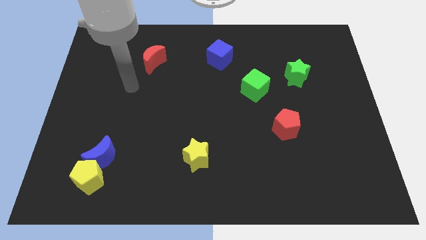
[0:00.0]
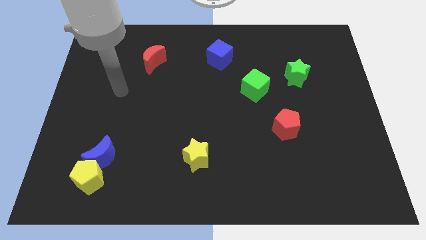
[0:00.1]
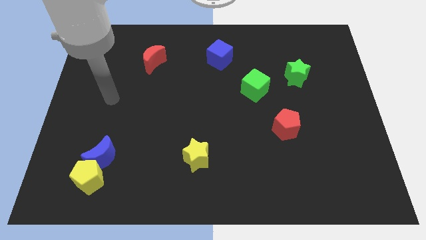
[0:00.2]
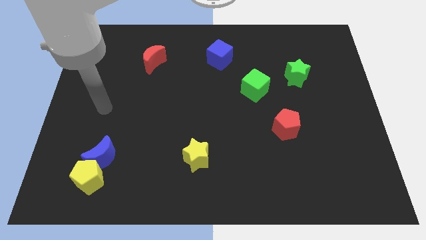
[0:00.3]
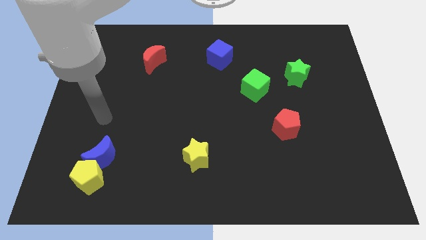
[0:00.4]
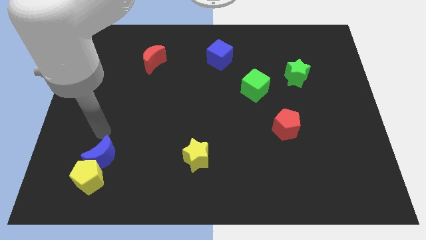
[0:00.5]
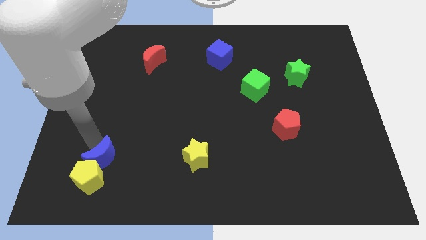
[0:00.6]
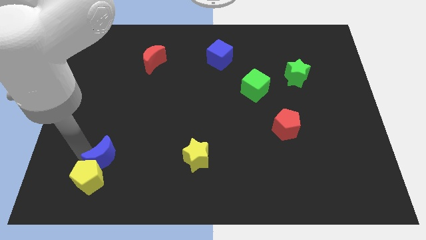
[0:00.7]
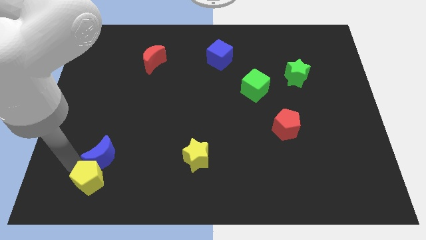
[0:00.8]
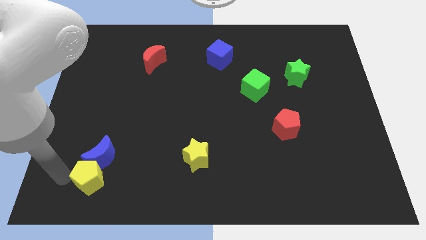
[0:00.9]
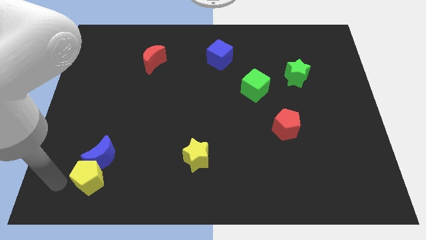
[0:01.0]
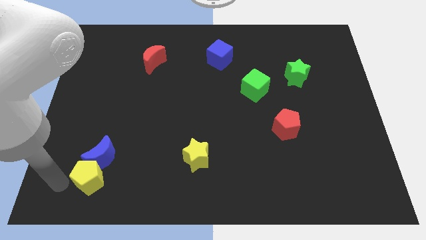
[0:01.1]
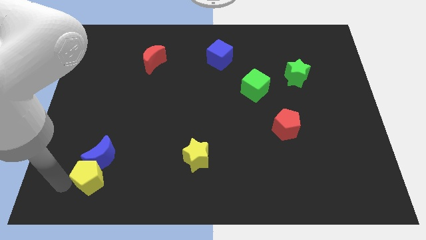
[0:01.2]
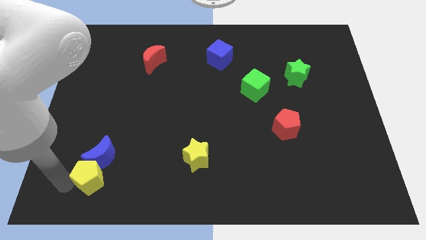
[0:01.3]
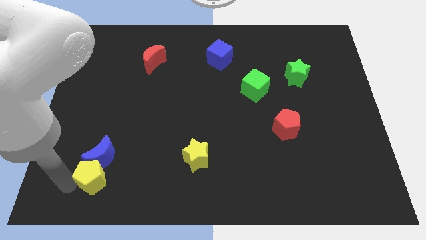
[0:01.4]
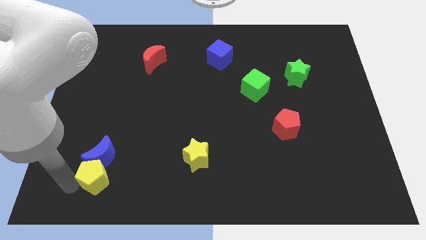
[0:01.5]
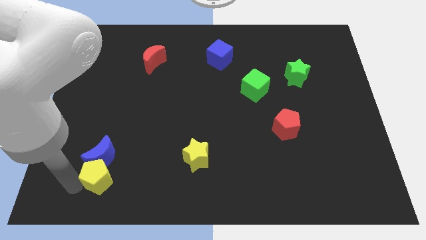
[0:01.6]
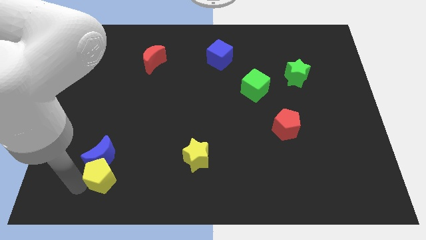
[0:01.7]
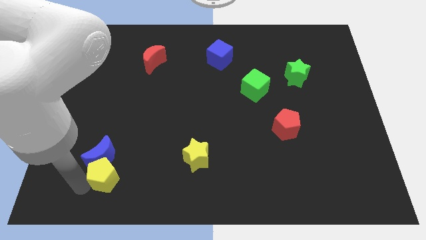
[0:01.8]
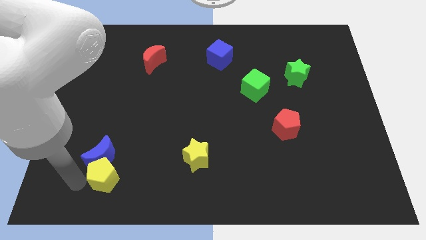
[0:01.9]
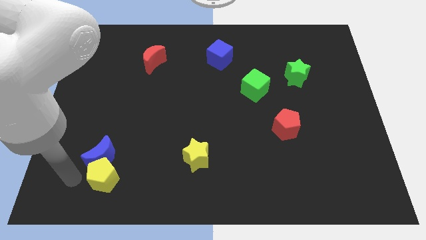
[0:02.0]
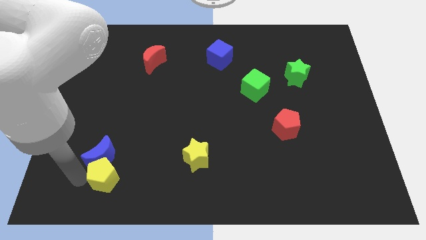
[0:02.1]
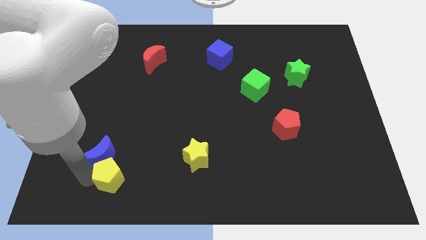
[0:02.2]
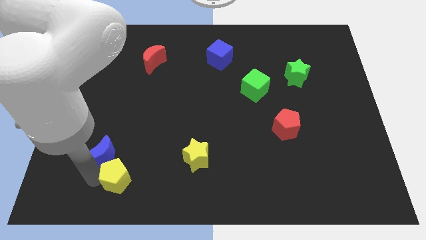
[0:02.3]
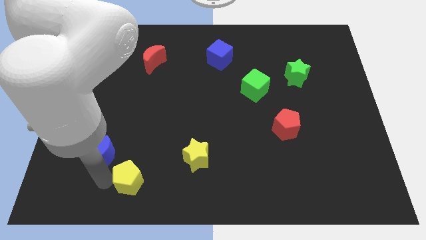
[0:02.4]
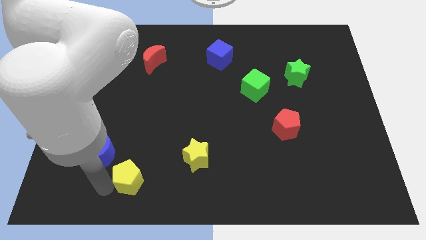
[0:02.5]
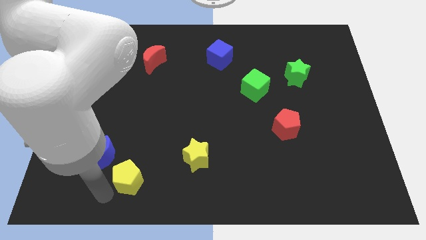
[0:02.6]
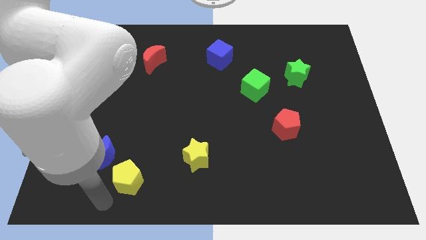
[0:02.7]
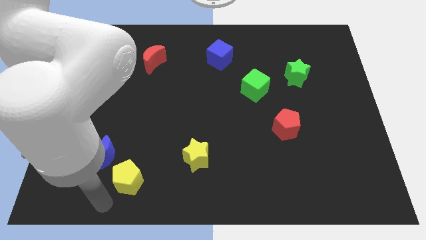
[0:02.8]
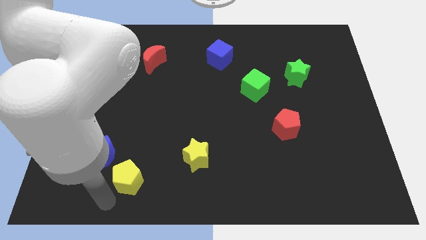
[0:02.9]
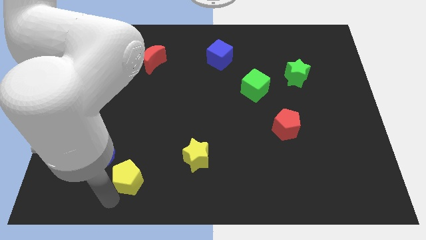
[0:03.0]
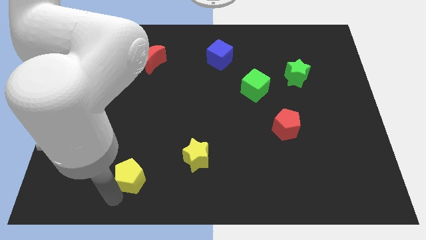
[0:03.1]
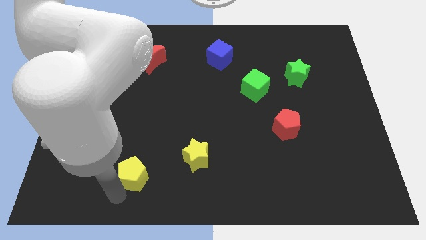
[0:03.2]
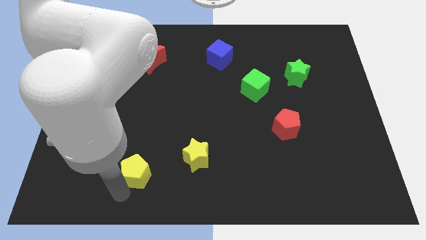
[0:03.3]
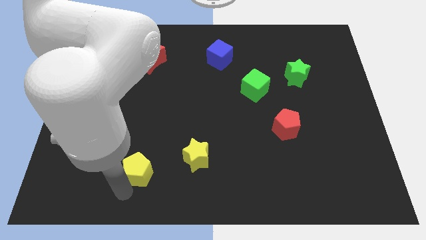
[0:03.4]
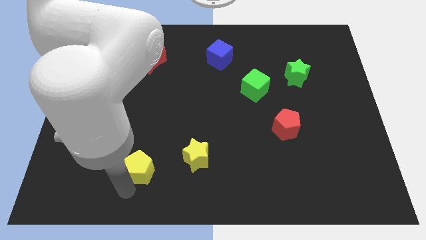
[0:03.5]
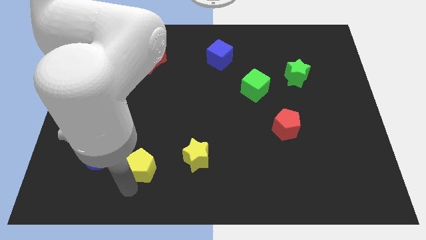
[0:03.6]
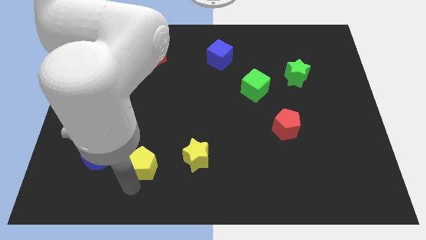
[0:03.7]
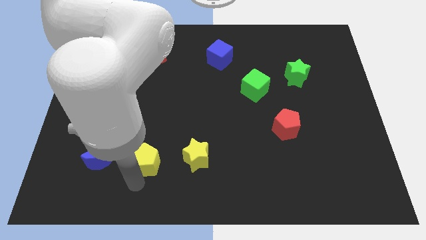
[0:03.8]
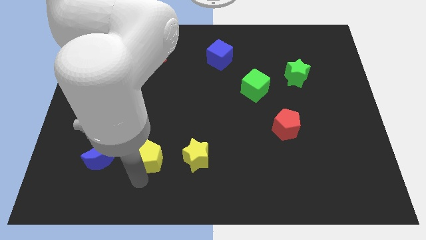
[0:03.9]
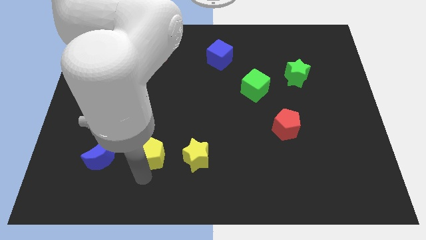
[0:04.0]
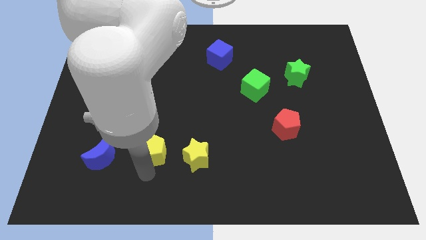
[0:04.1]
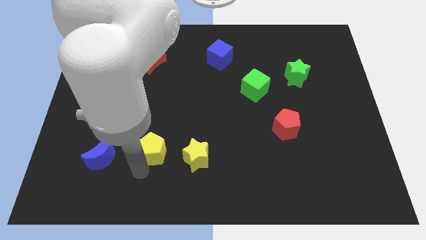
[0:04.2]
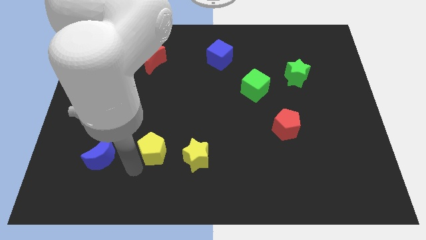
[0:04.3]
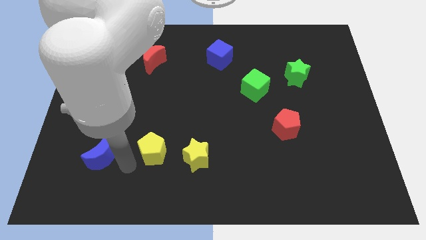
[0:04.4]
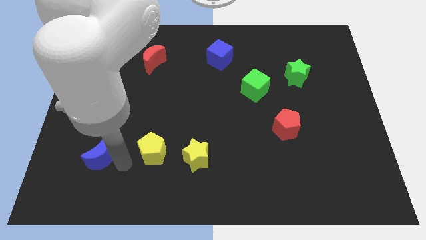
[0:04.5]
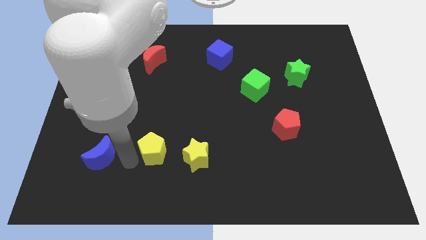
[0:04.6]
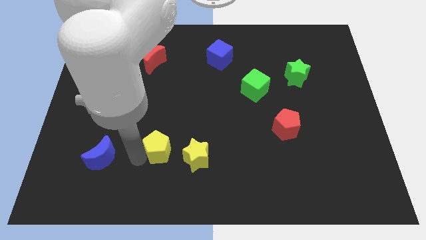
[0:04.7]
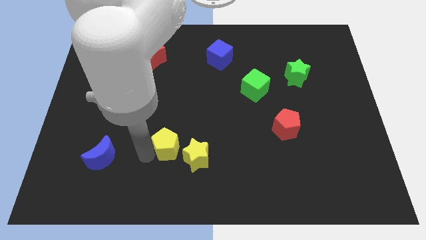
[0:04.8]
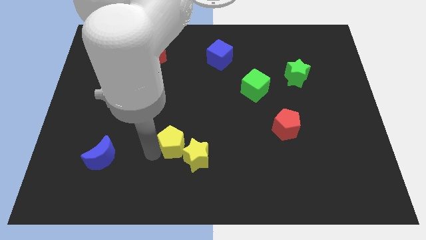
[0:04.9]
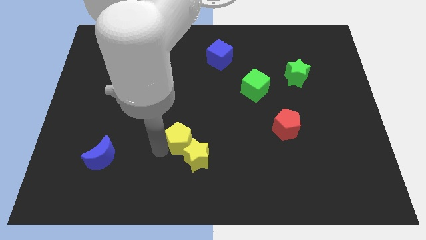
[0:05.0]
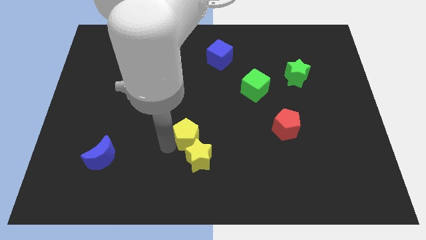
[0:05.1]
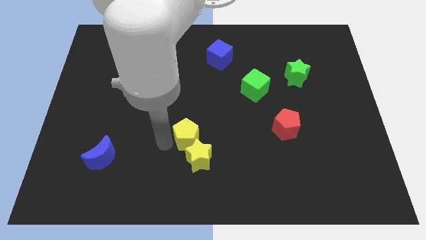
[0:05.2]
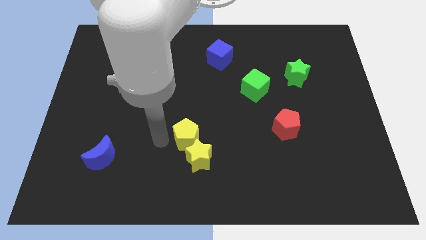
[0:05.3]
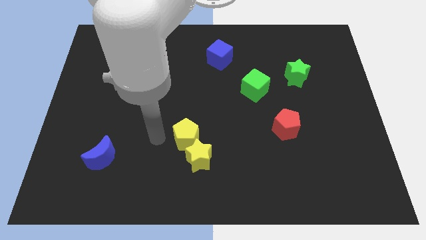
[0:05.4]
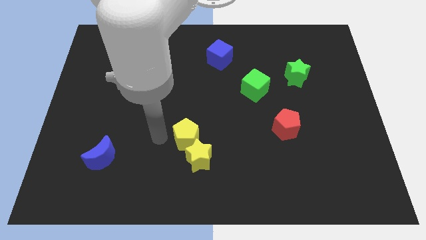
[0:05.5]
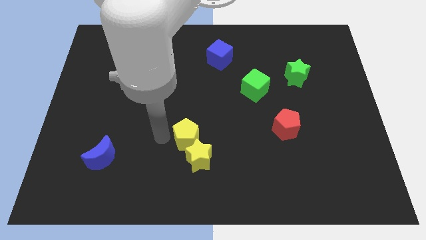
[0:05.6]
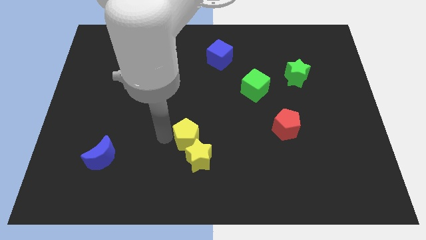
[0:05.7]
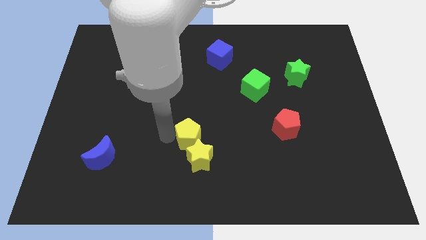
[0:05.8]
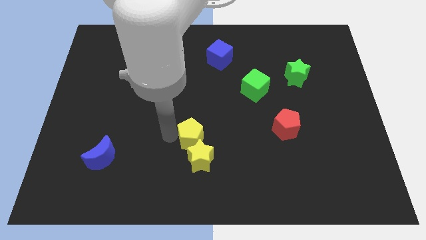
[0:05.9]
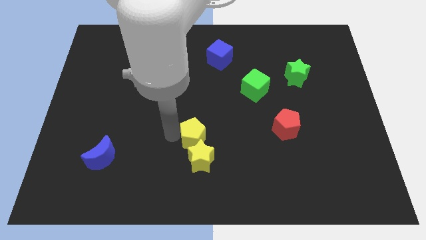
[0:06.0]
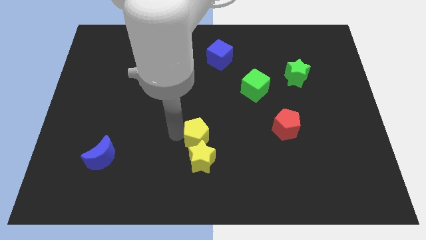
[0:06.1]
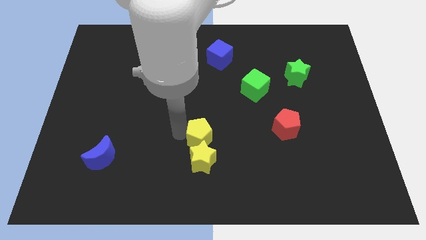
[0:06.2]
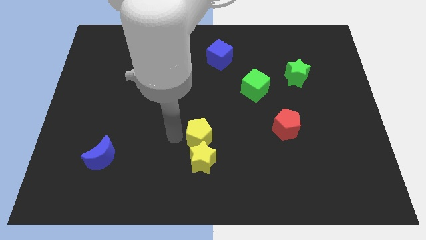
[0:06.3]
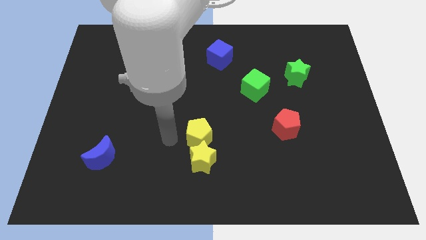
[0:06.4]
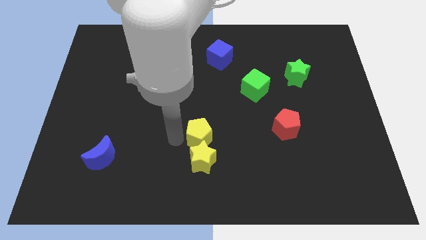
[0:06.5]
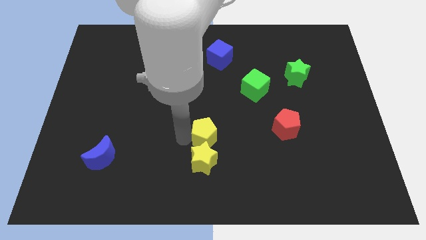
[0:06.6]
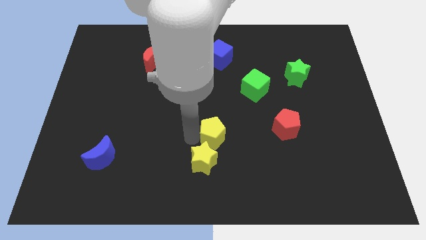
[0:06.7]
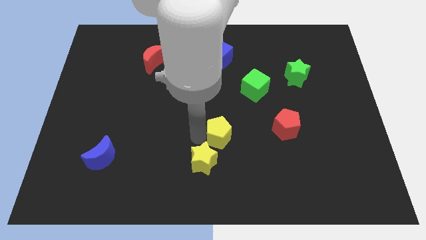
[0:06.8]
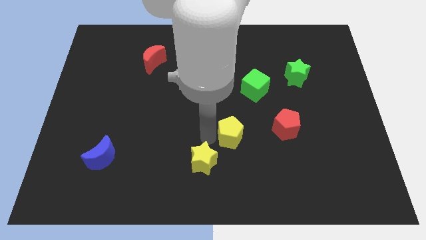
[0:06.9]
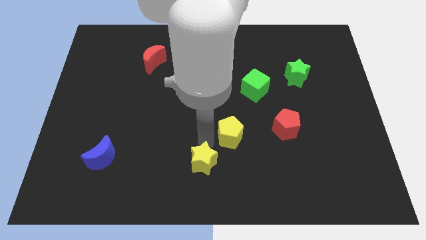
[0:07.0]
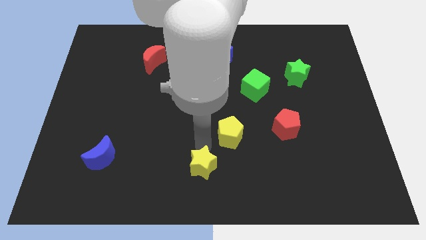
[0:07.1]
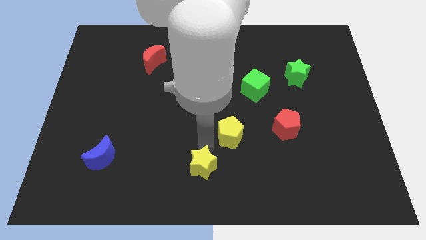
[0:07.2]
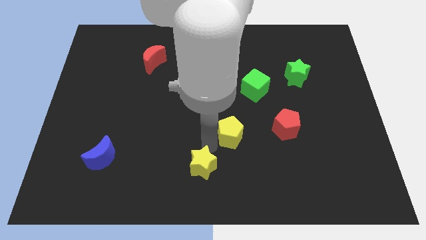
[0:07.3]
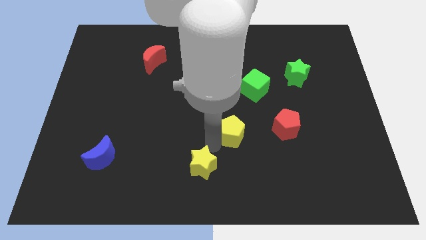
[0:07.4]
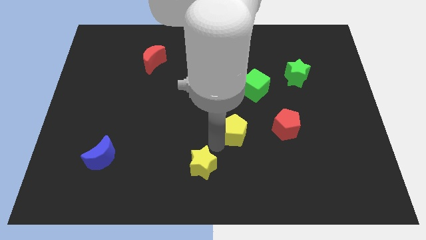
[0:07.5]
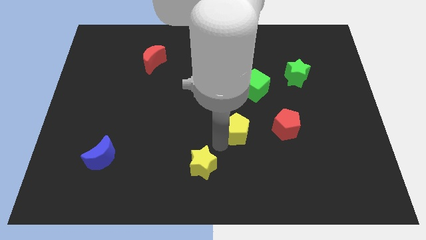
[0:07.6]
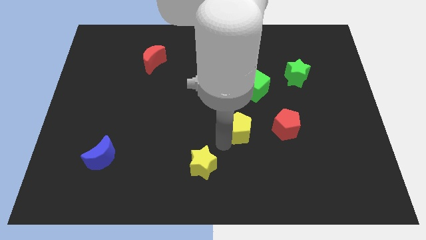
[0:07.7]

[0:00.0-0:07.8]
move the yellow pentagon below the green cube

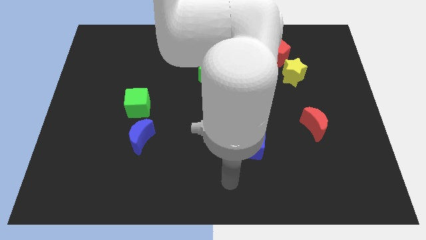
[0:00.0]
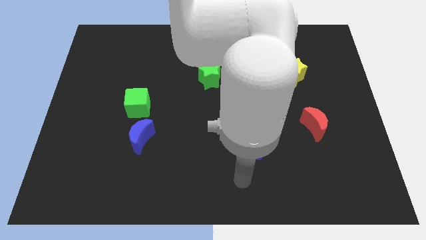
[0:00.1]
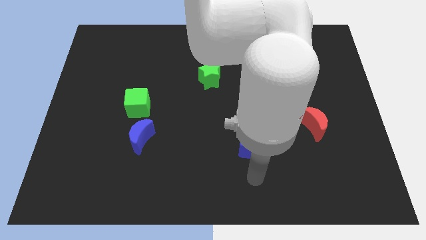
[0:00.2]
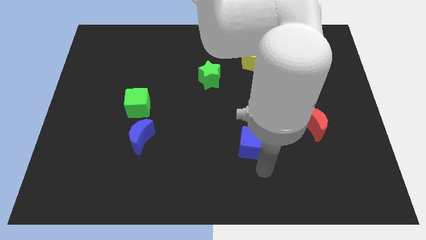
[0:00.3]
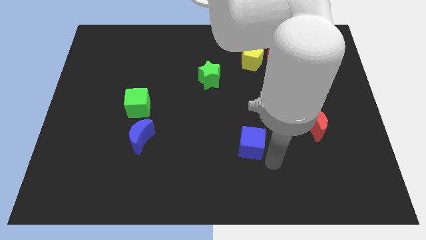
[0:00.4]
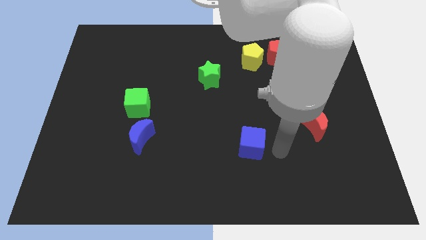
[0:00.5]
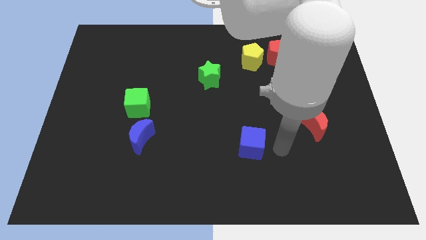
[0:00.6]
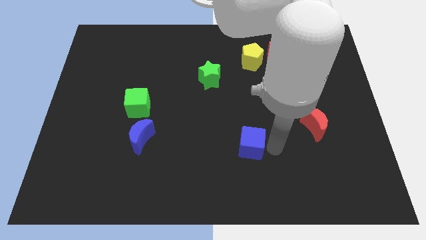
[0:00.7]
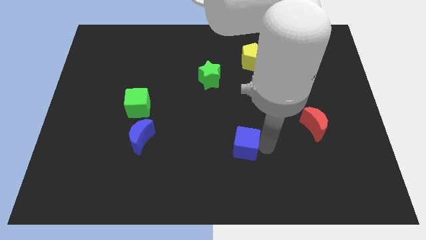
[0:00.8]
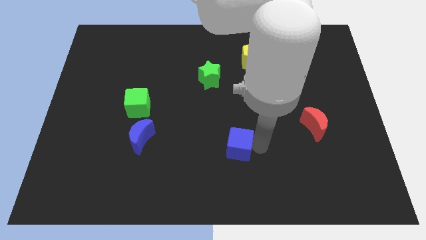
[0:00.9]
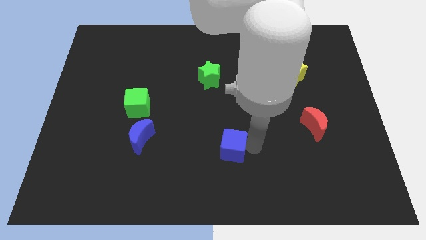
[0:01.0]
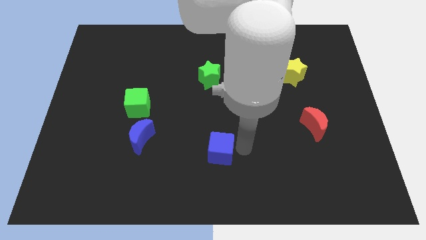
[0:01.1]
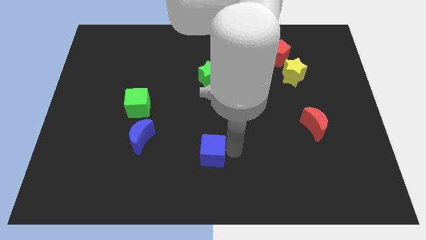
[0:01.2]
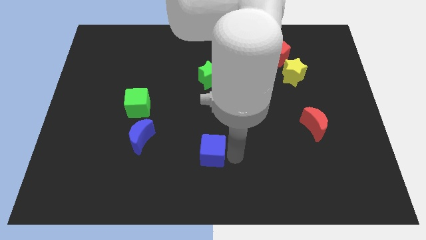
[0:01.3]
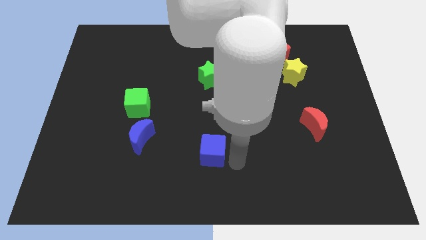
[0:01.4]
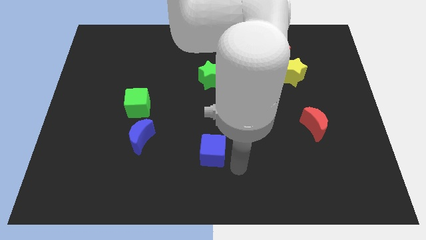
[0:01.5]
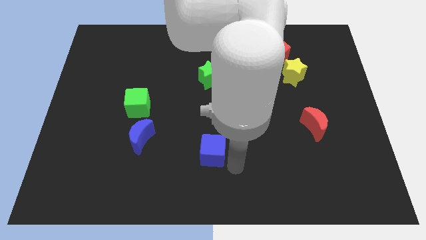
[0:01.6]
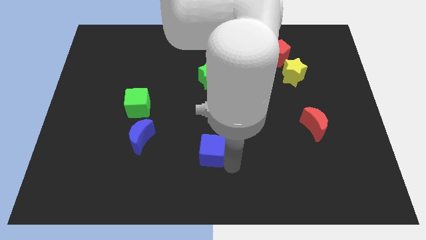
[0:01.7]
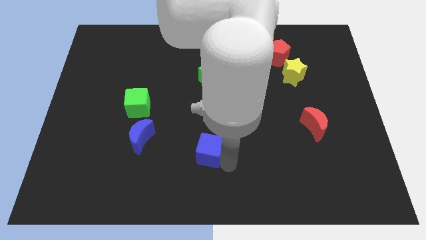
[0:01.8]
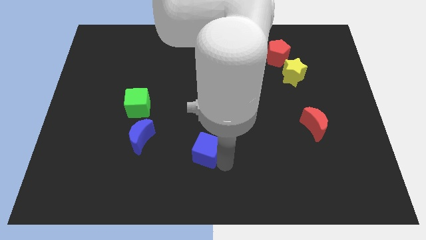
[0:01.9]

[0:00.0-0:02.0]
slide the blue cube to the right side of the blue moon
